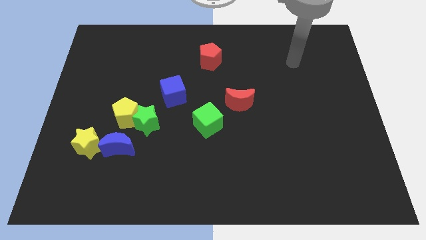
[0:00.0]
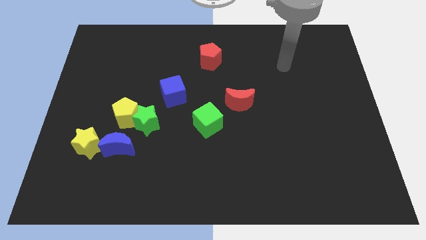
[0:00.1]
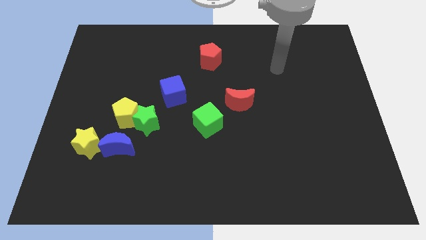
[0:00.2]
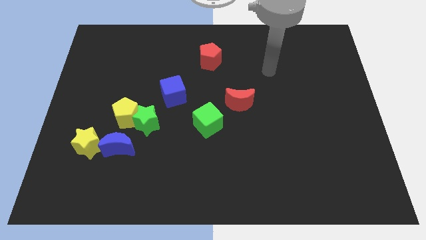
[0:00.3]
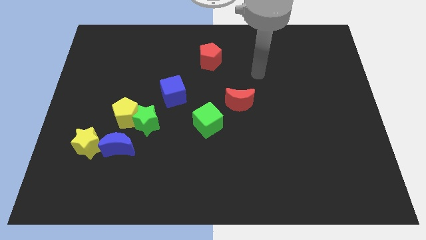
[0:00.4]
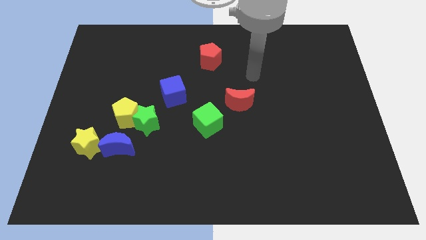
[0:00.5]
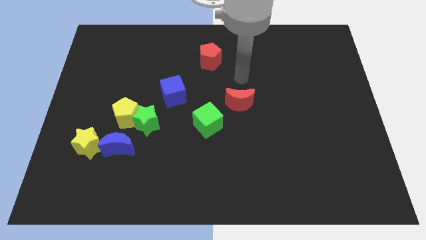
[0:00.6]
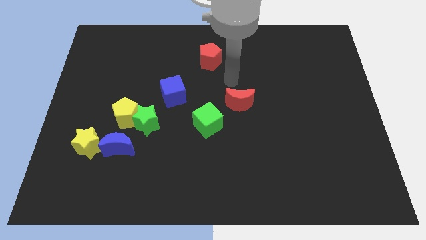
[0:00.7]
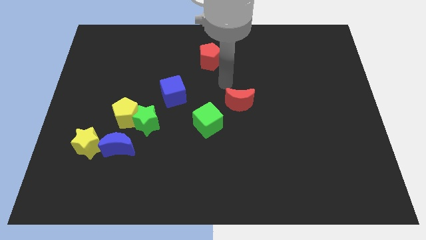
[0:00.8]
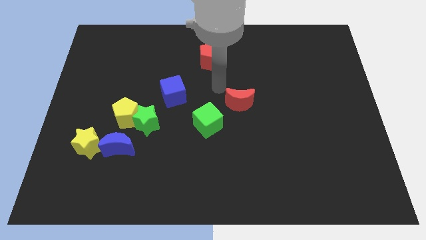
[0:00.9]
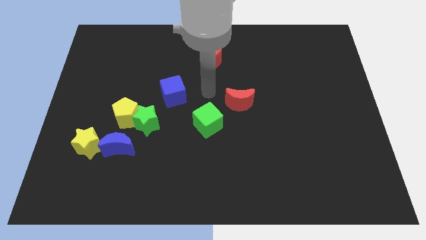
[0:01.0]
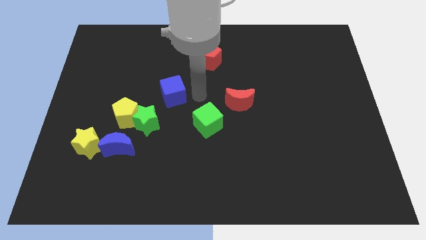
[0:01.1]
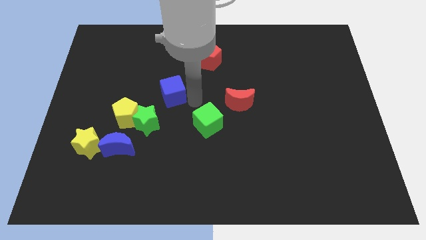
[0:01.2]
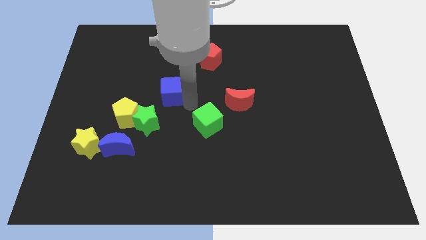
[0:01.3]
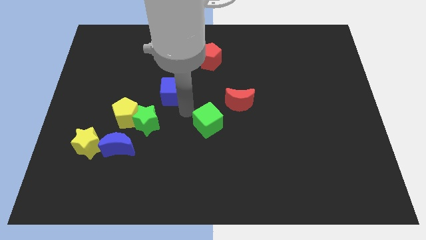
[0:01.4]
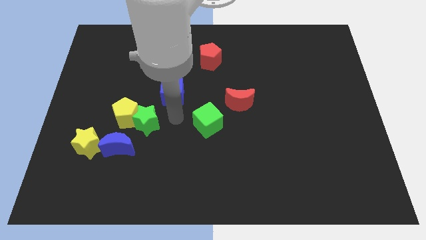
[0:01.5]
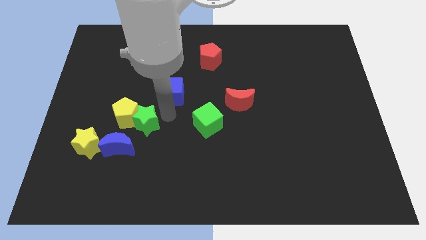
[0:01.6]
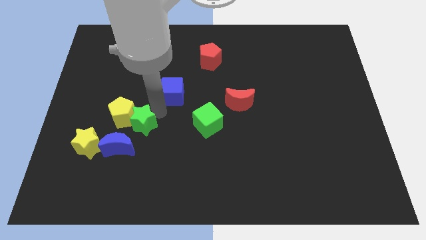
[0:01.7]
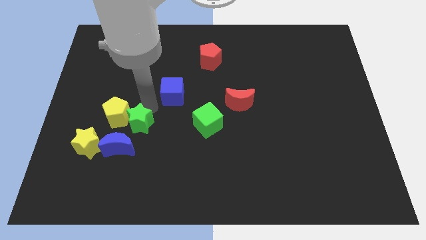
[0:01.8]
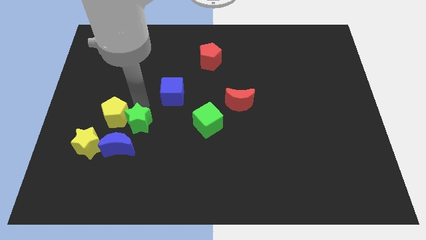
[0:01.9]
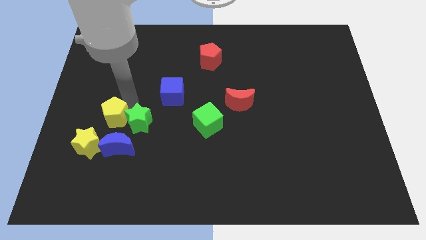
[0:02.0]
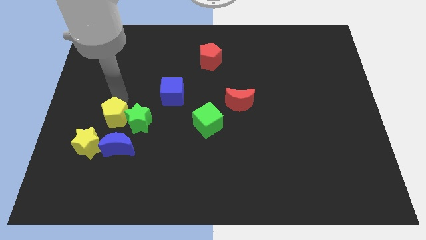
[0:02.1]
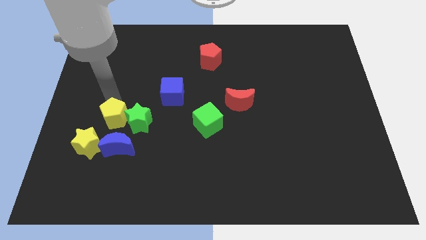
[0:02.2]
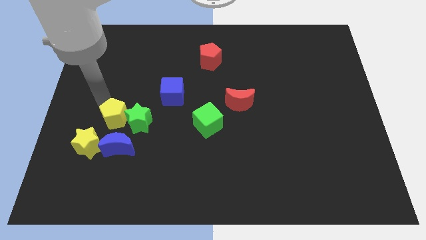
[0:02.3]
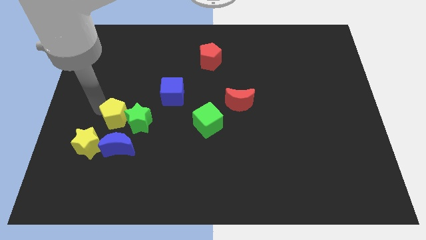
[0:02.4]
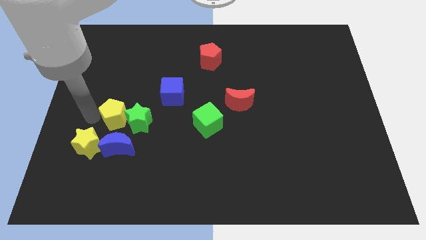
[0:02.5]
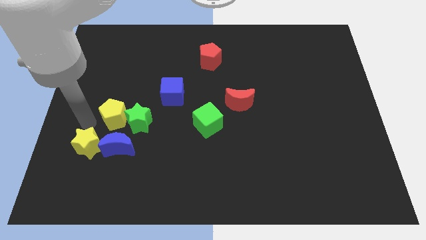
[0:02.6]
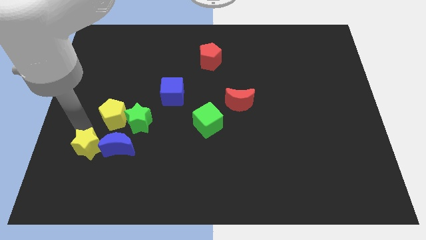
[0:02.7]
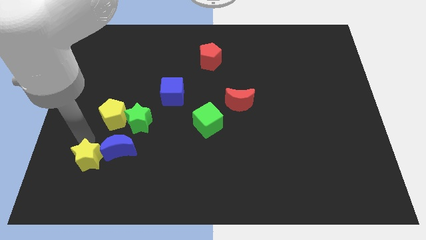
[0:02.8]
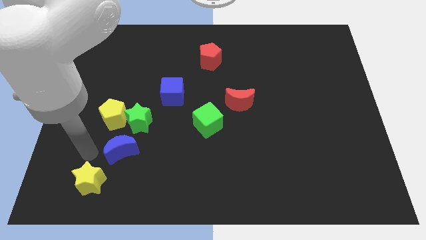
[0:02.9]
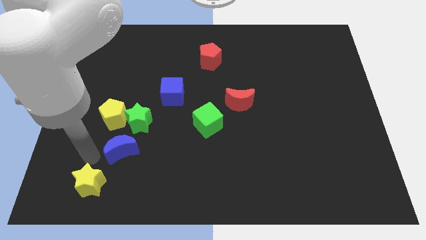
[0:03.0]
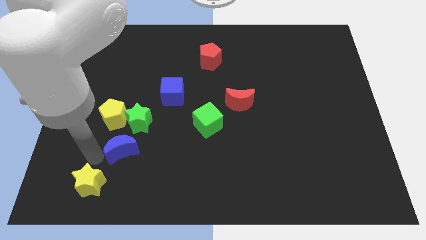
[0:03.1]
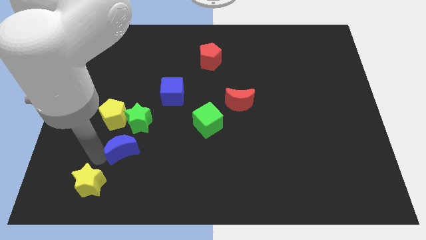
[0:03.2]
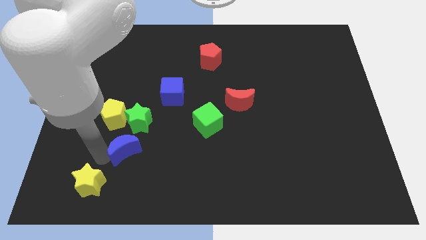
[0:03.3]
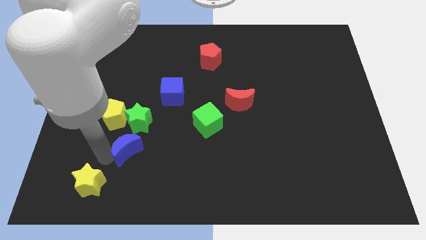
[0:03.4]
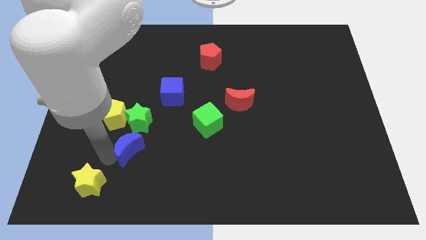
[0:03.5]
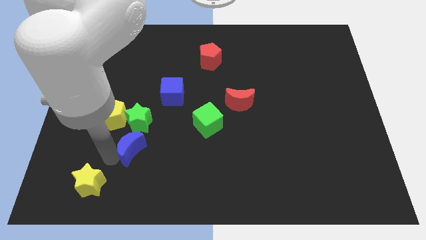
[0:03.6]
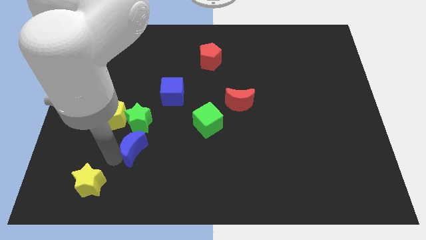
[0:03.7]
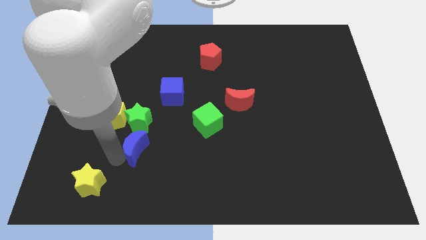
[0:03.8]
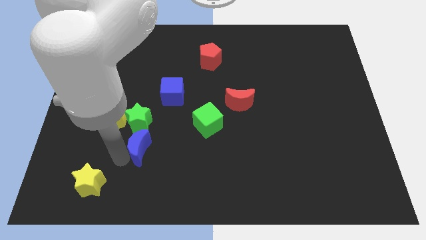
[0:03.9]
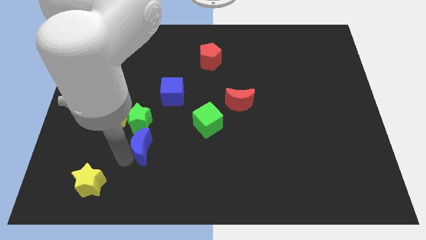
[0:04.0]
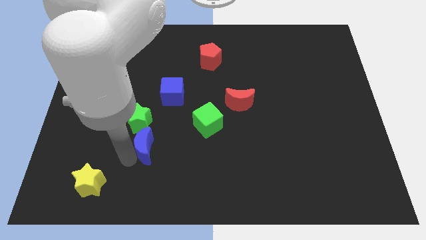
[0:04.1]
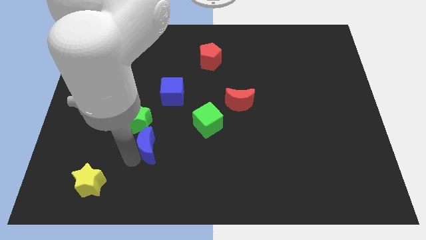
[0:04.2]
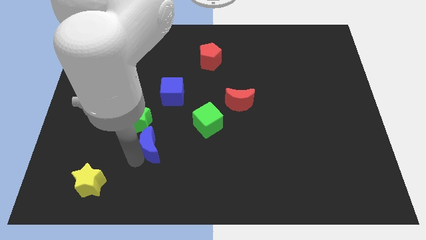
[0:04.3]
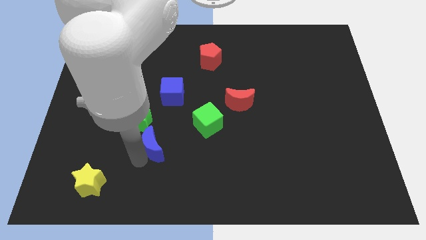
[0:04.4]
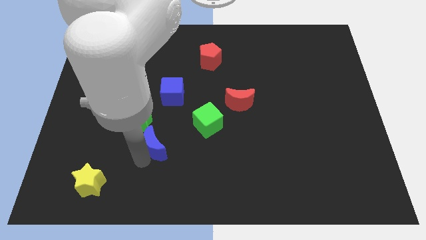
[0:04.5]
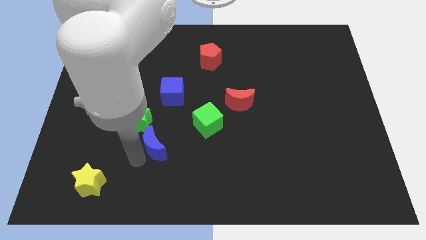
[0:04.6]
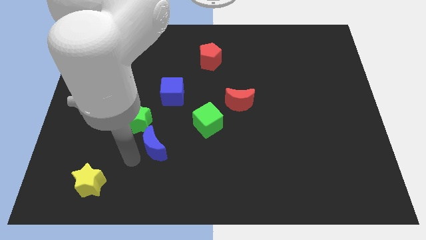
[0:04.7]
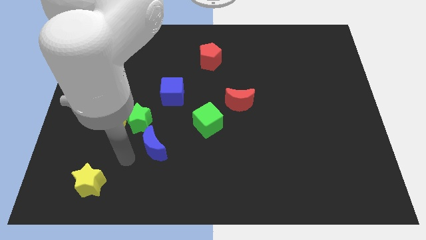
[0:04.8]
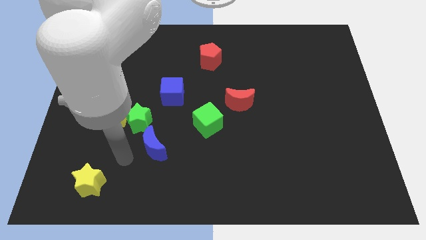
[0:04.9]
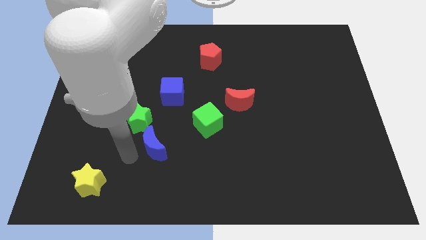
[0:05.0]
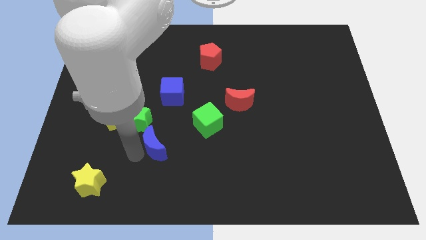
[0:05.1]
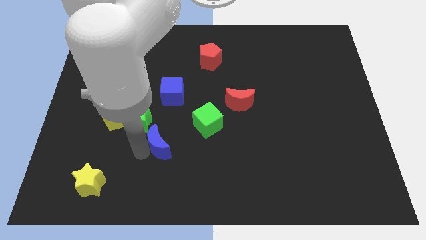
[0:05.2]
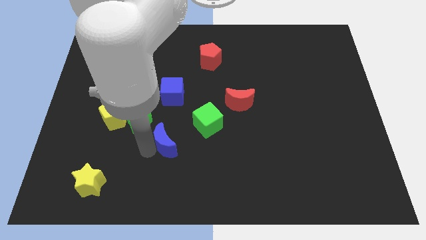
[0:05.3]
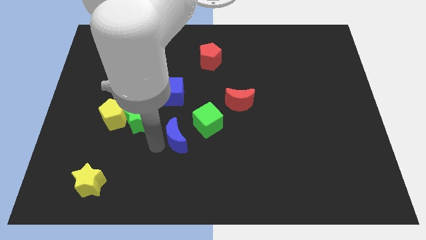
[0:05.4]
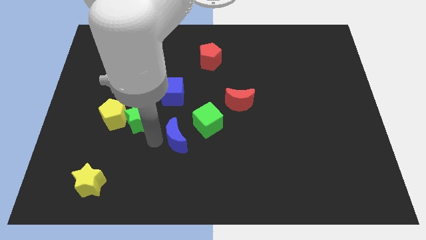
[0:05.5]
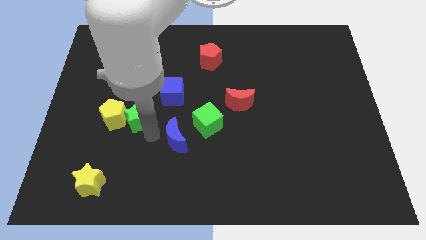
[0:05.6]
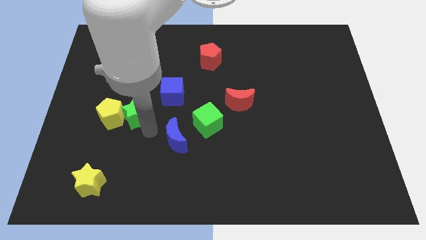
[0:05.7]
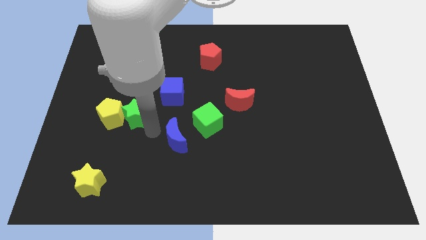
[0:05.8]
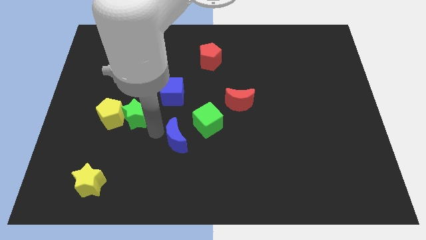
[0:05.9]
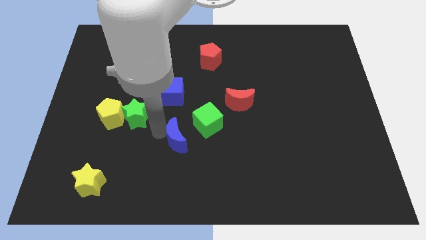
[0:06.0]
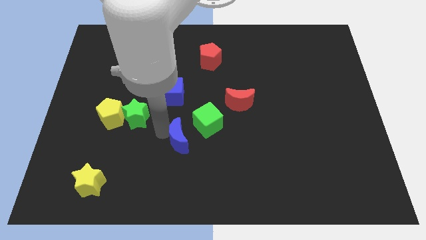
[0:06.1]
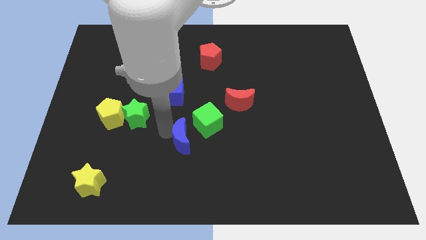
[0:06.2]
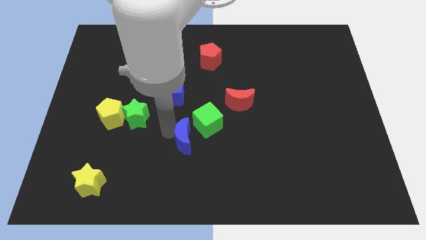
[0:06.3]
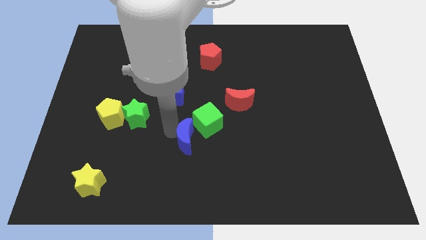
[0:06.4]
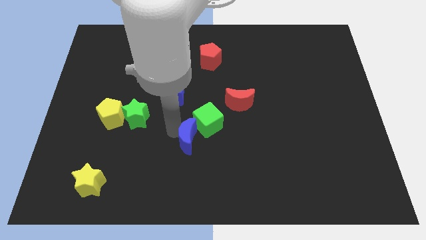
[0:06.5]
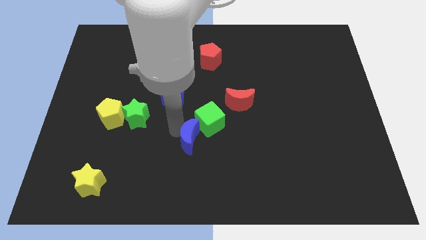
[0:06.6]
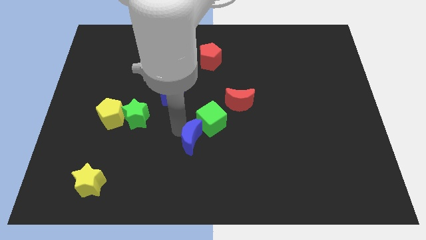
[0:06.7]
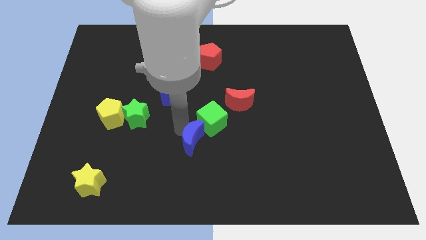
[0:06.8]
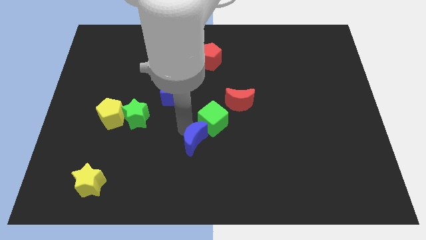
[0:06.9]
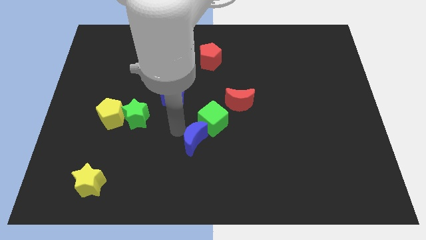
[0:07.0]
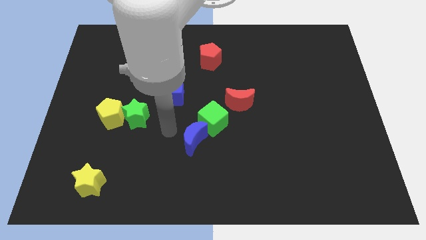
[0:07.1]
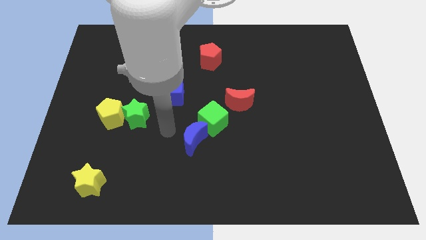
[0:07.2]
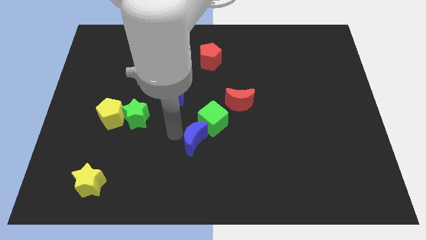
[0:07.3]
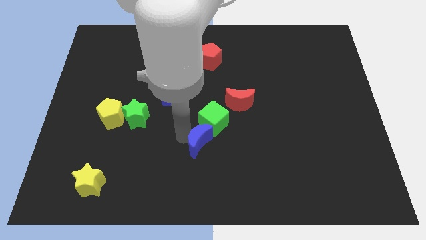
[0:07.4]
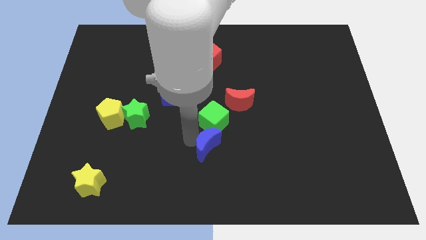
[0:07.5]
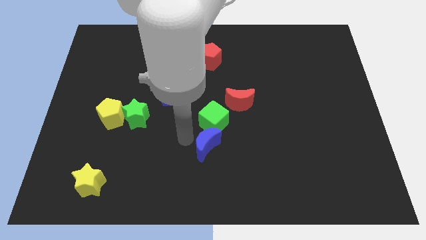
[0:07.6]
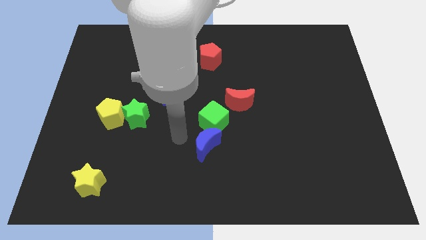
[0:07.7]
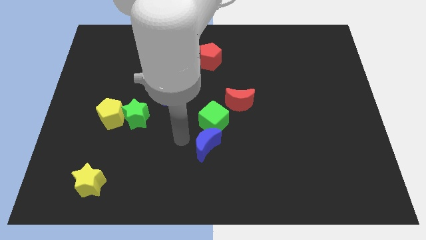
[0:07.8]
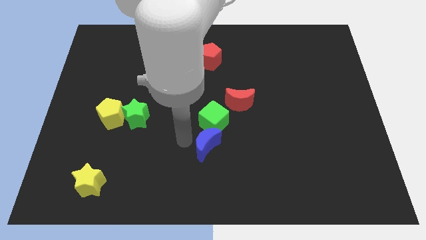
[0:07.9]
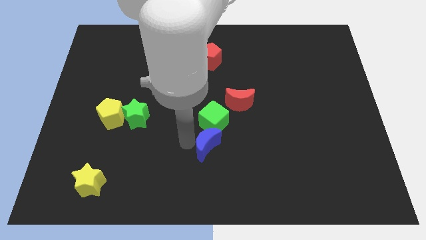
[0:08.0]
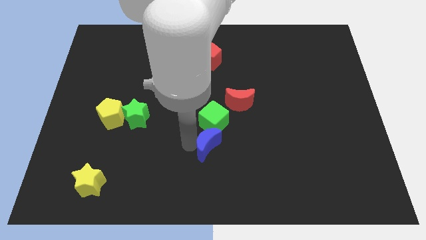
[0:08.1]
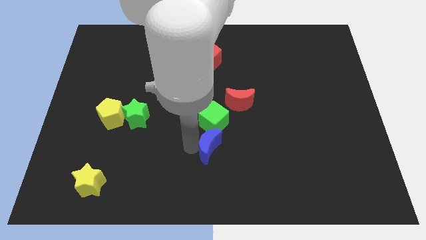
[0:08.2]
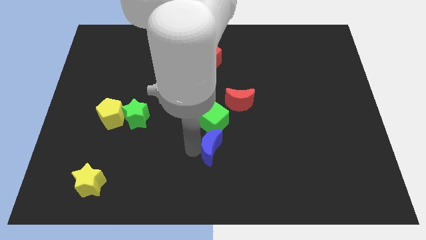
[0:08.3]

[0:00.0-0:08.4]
slide the blue moon right
